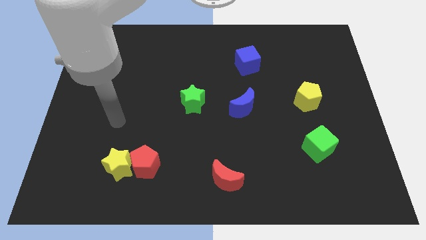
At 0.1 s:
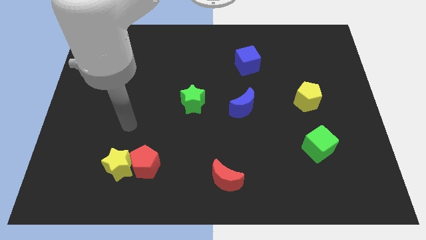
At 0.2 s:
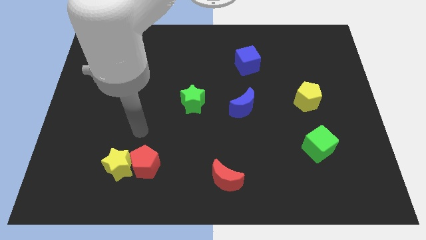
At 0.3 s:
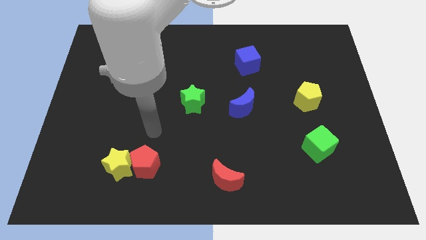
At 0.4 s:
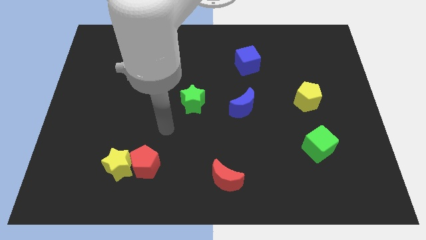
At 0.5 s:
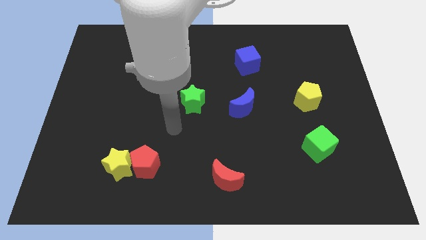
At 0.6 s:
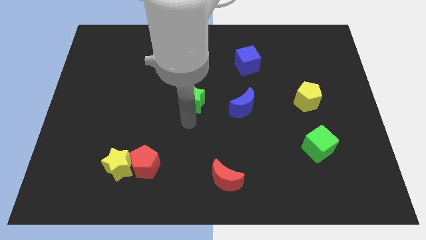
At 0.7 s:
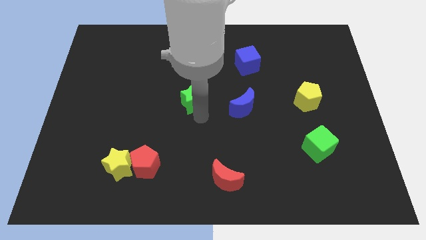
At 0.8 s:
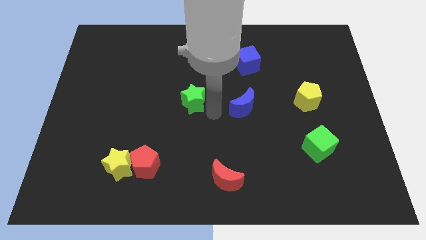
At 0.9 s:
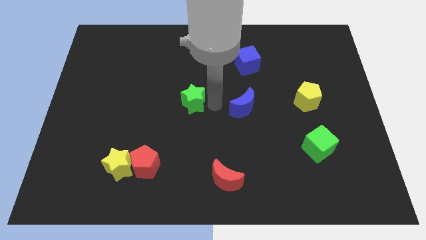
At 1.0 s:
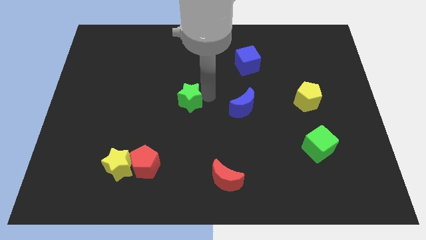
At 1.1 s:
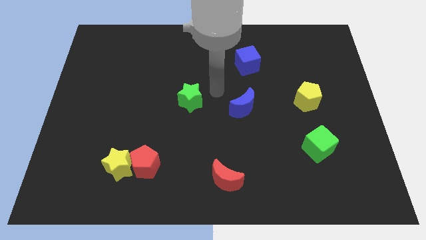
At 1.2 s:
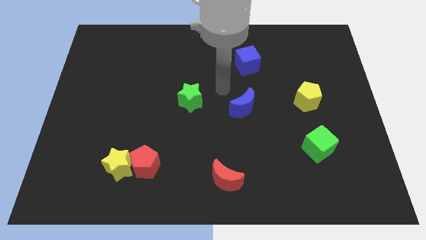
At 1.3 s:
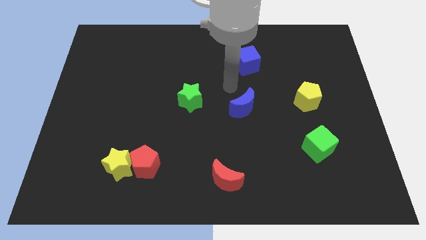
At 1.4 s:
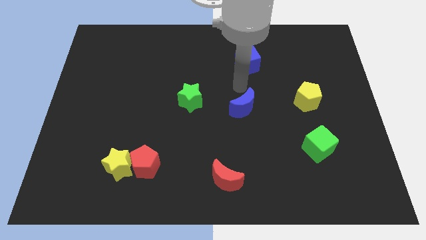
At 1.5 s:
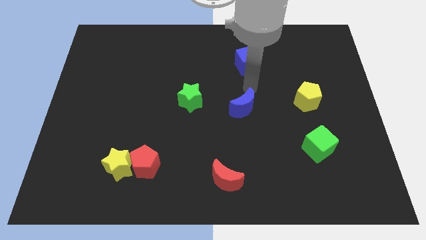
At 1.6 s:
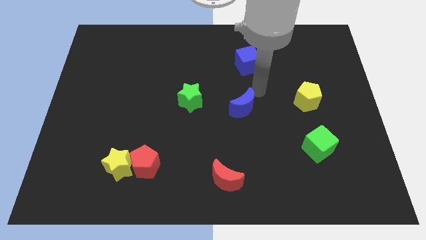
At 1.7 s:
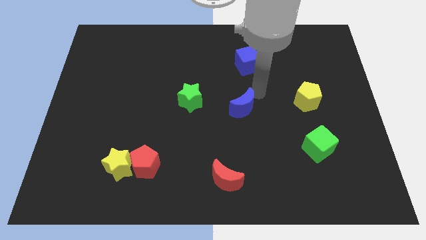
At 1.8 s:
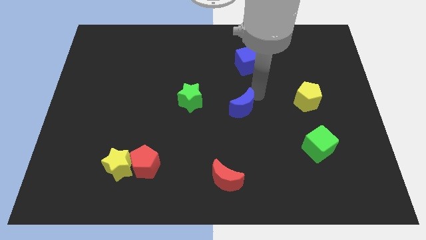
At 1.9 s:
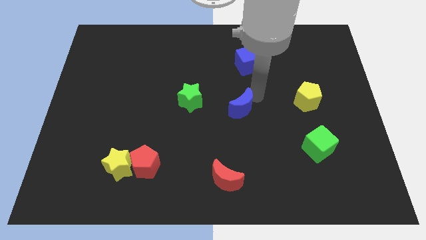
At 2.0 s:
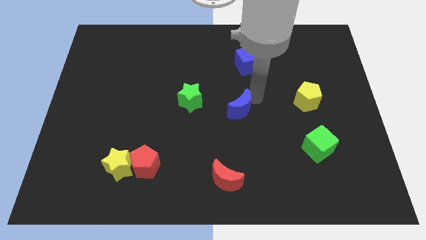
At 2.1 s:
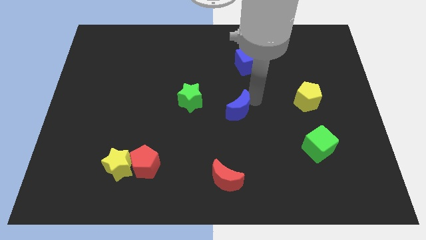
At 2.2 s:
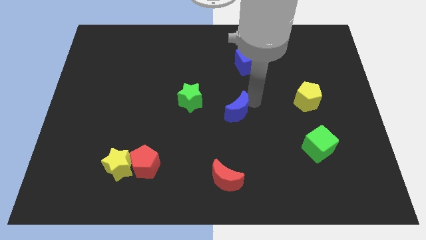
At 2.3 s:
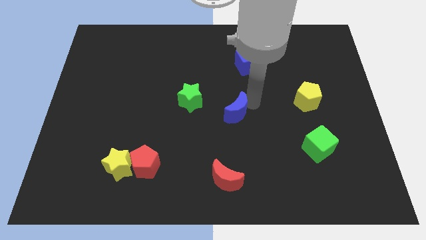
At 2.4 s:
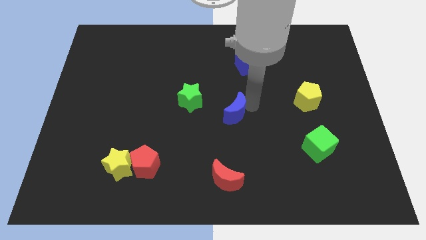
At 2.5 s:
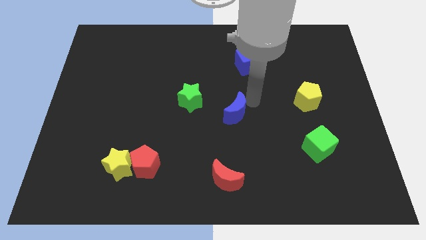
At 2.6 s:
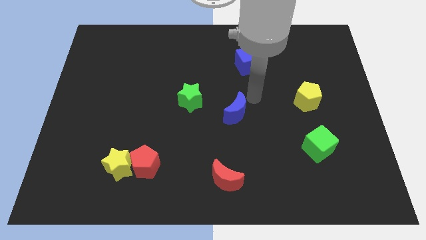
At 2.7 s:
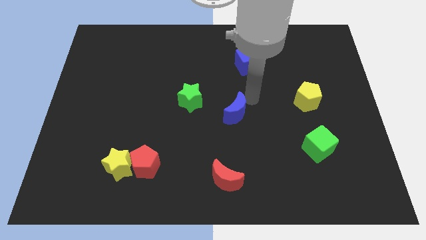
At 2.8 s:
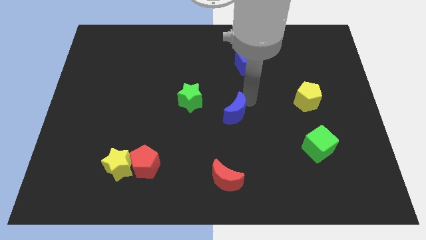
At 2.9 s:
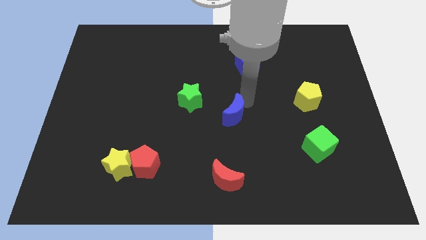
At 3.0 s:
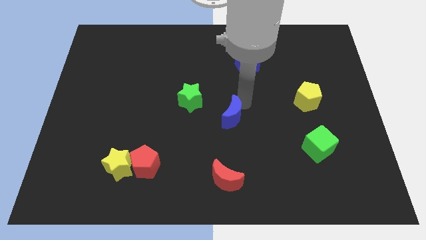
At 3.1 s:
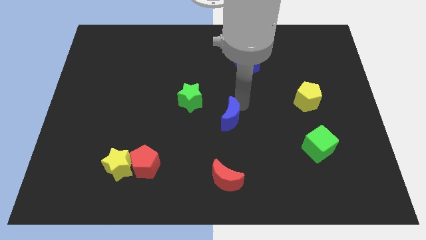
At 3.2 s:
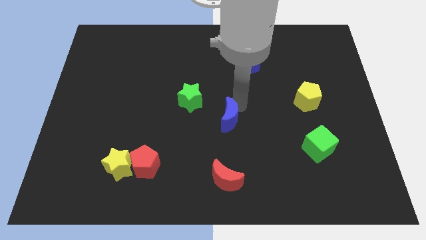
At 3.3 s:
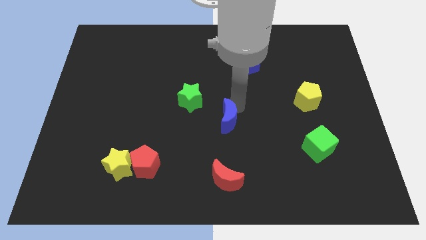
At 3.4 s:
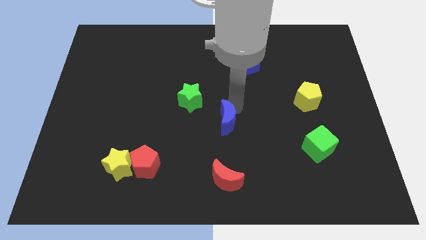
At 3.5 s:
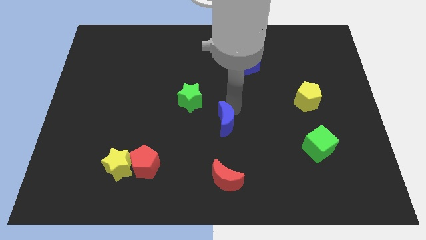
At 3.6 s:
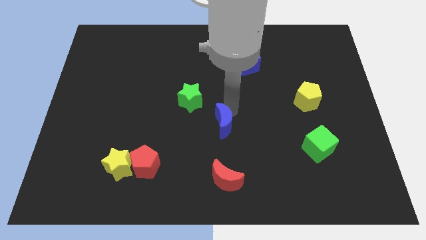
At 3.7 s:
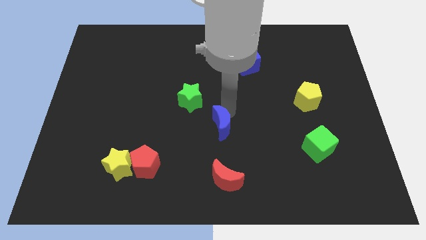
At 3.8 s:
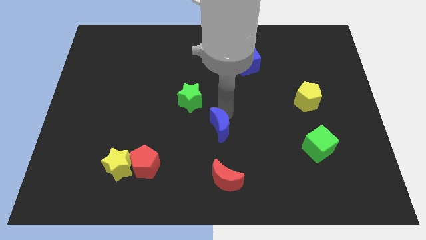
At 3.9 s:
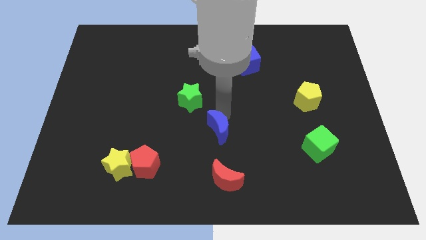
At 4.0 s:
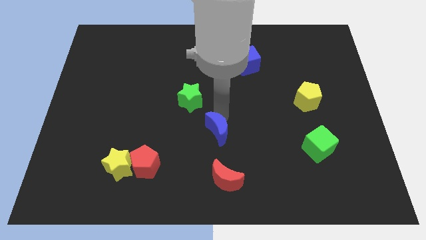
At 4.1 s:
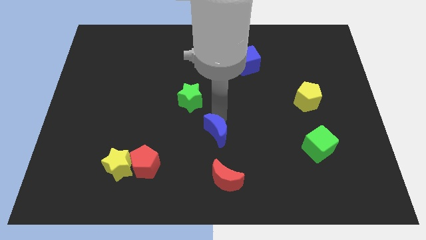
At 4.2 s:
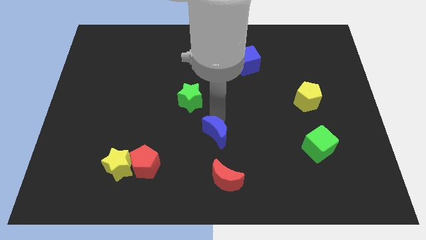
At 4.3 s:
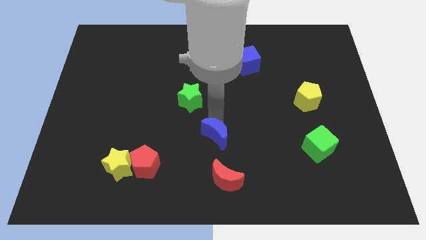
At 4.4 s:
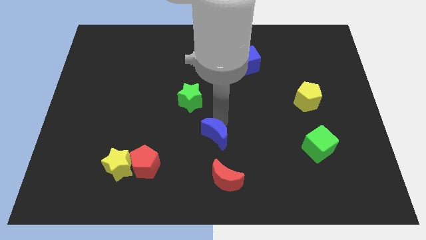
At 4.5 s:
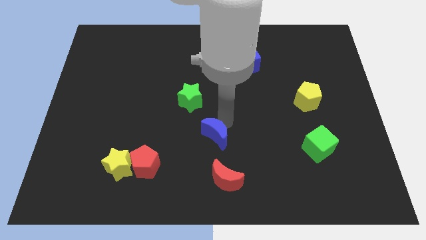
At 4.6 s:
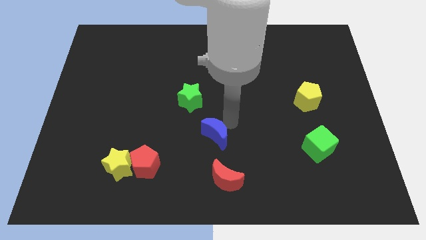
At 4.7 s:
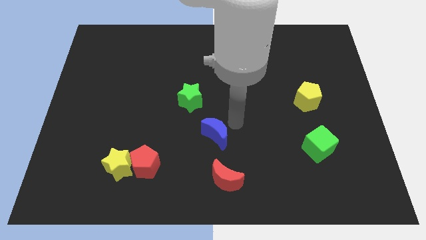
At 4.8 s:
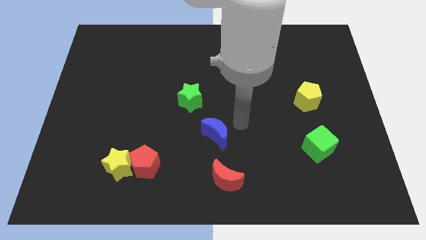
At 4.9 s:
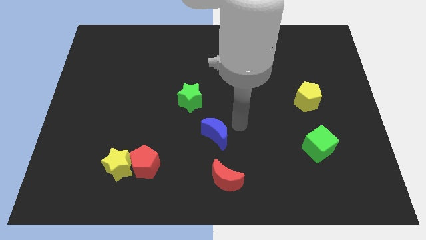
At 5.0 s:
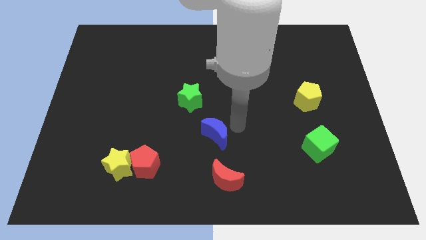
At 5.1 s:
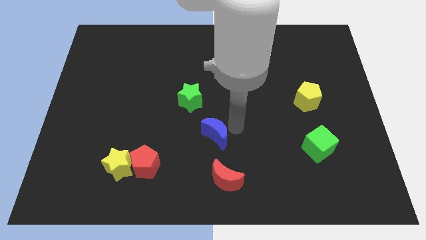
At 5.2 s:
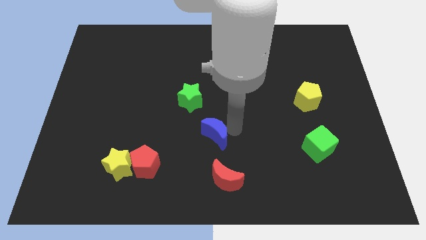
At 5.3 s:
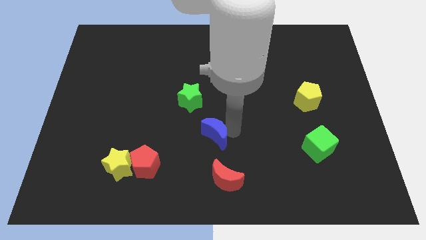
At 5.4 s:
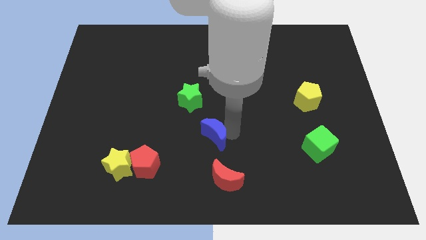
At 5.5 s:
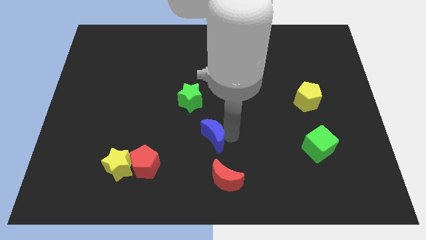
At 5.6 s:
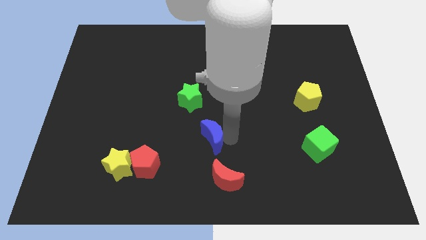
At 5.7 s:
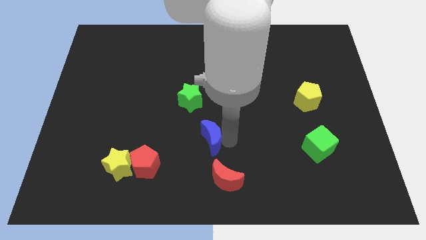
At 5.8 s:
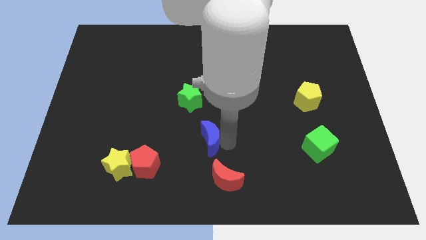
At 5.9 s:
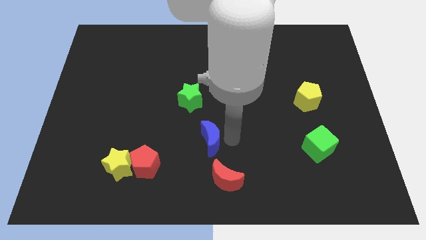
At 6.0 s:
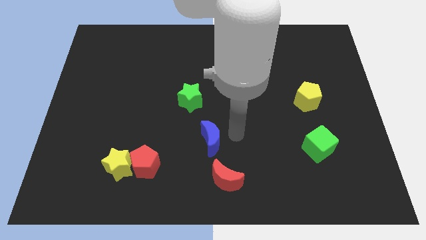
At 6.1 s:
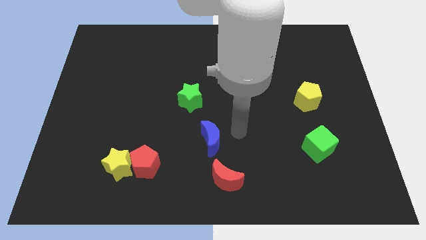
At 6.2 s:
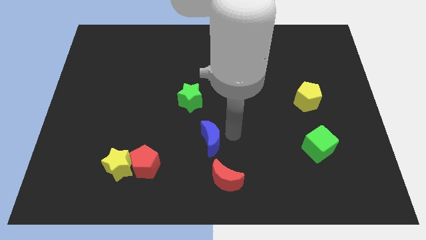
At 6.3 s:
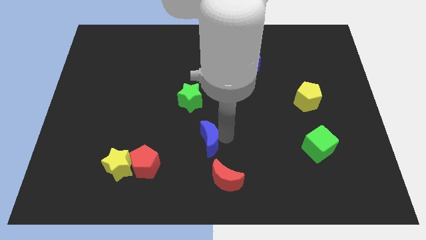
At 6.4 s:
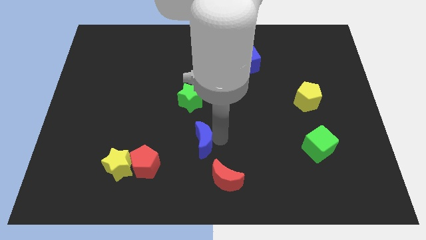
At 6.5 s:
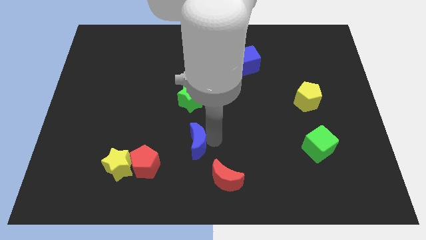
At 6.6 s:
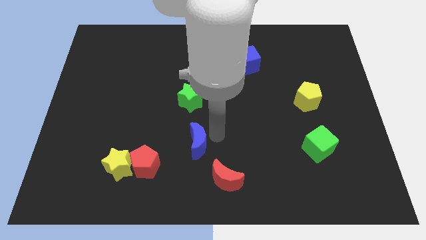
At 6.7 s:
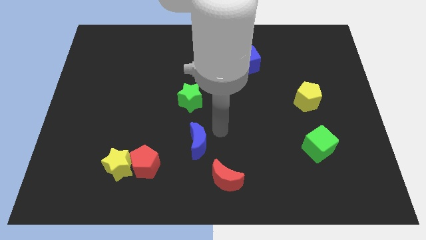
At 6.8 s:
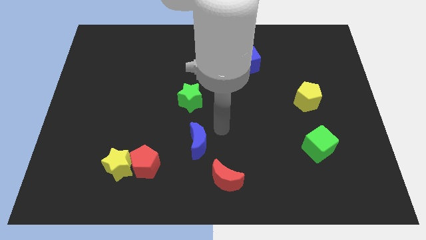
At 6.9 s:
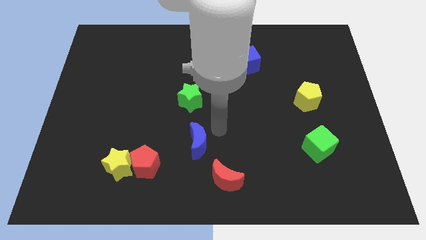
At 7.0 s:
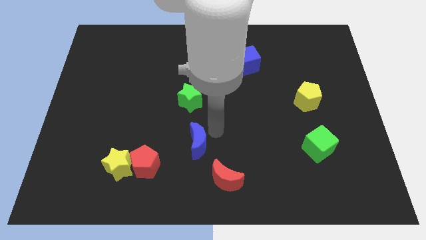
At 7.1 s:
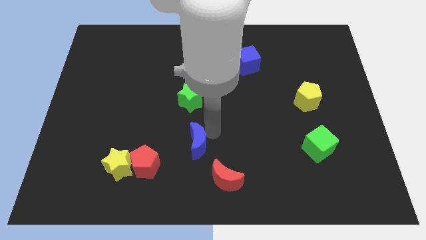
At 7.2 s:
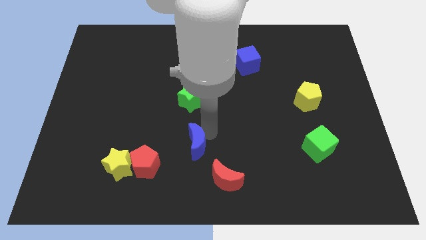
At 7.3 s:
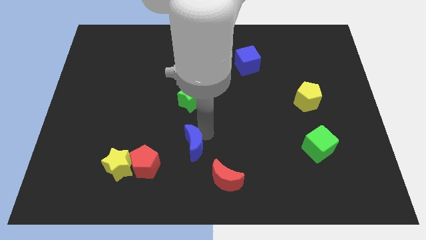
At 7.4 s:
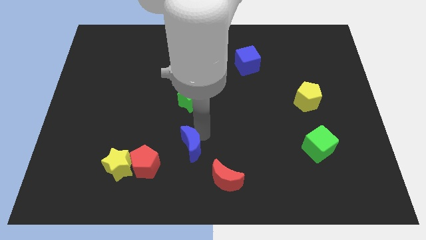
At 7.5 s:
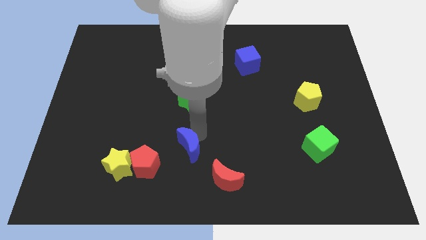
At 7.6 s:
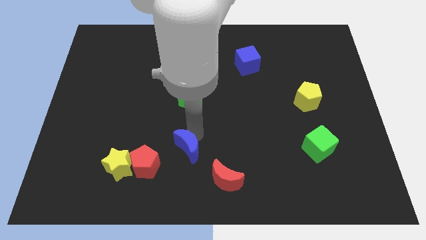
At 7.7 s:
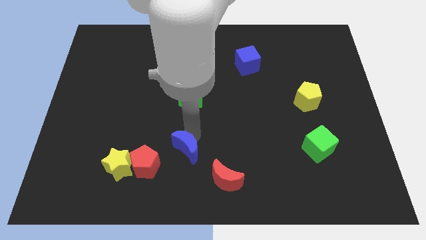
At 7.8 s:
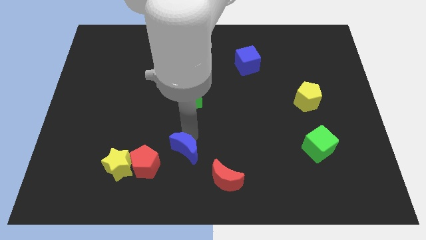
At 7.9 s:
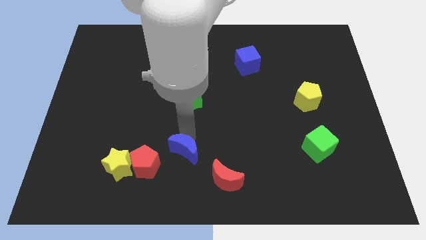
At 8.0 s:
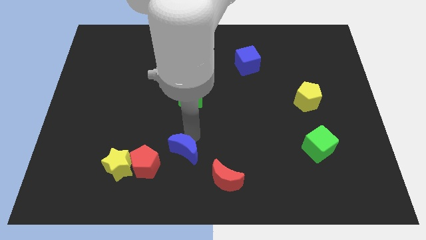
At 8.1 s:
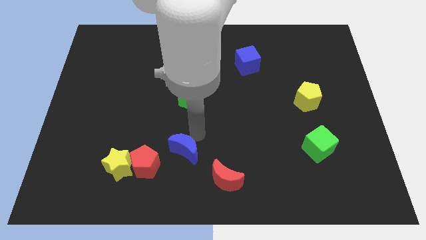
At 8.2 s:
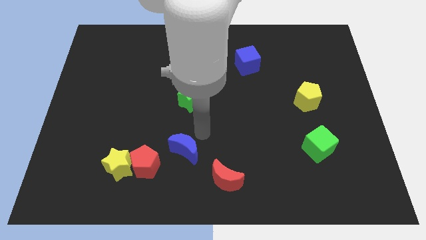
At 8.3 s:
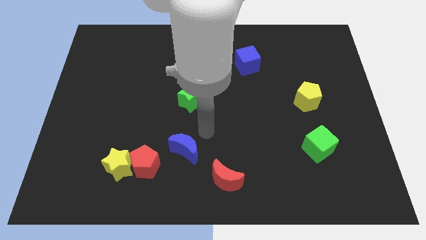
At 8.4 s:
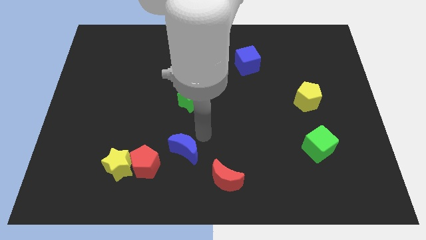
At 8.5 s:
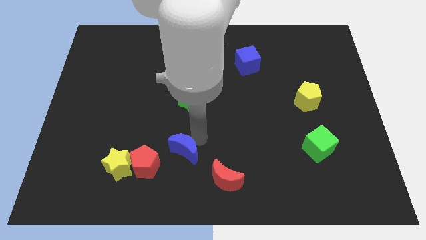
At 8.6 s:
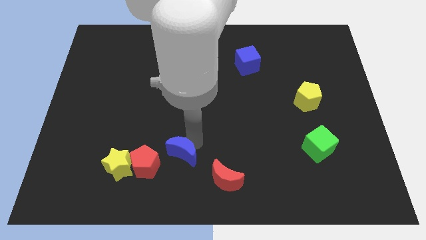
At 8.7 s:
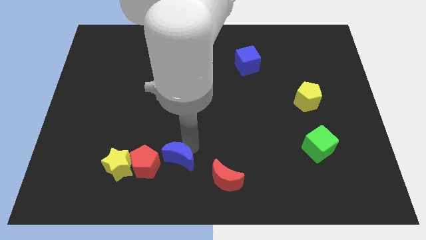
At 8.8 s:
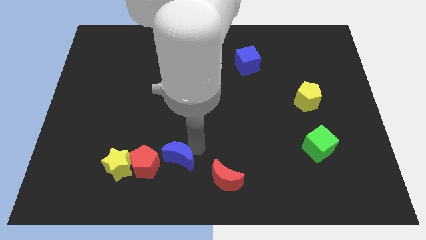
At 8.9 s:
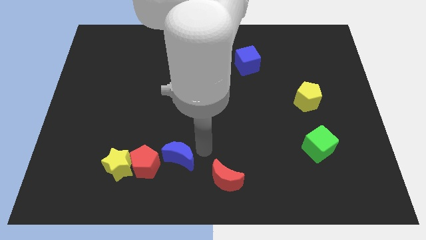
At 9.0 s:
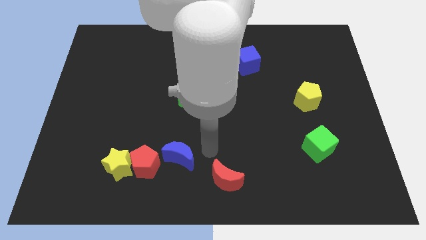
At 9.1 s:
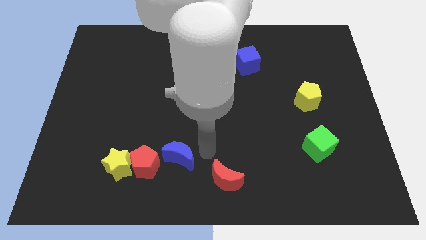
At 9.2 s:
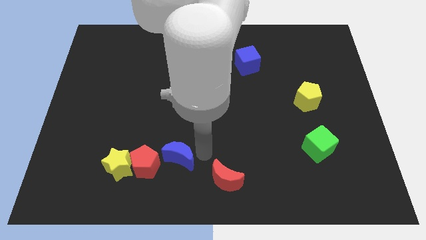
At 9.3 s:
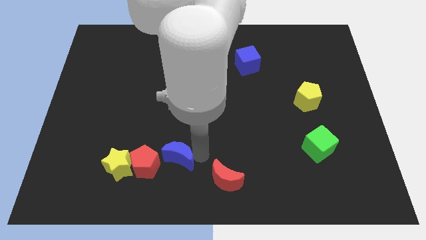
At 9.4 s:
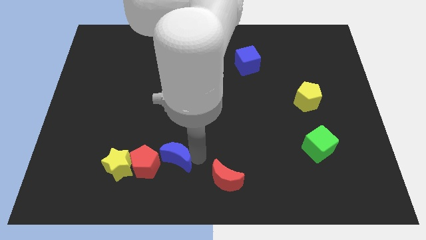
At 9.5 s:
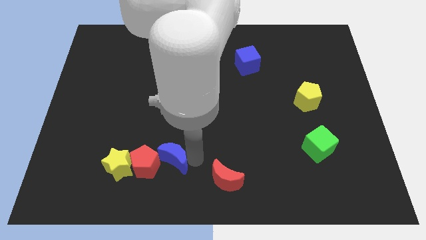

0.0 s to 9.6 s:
put the blue moon close to the red pentagon
